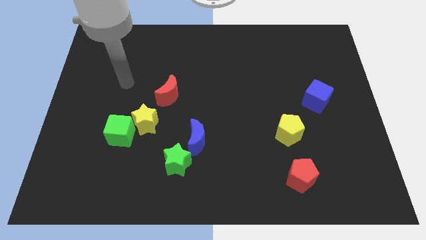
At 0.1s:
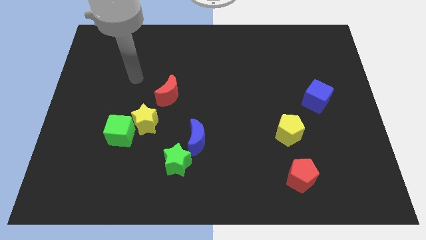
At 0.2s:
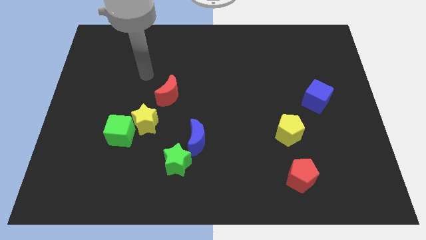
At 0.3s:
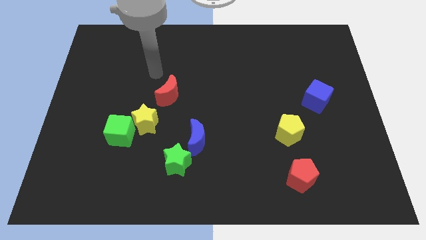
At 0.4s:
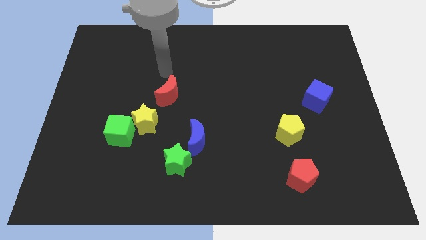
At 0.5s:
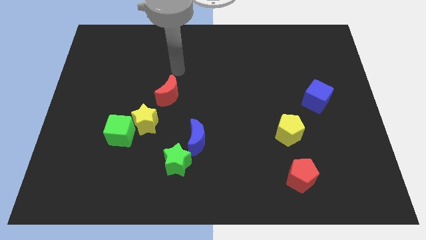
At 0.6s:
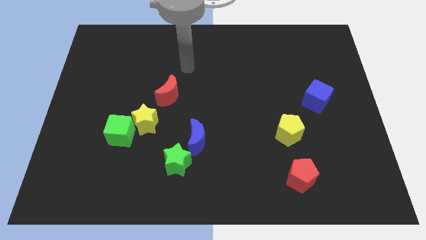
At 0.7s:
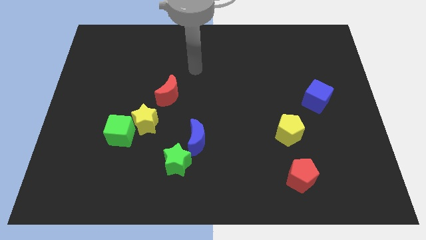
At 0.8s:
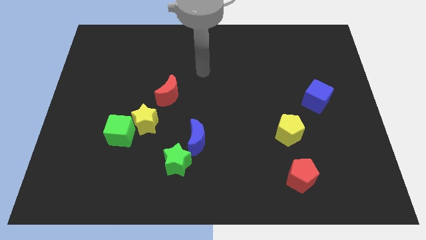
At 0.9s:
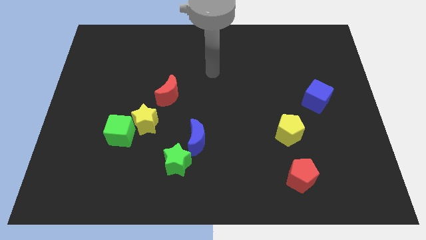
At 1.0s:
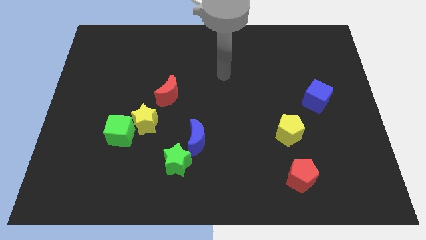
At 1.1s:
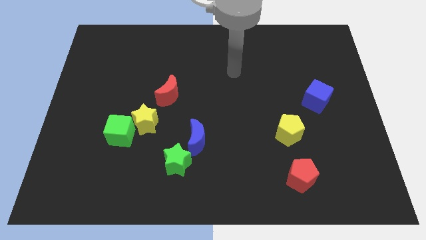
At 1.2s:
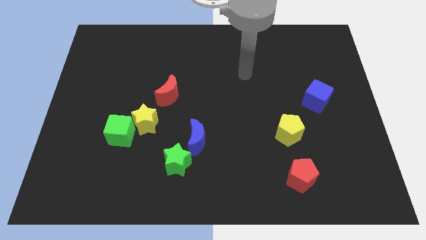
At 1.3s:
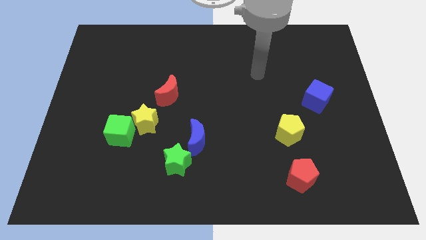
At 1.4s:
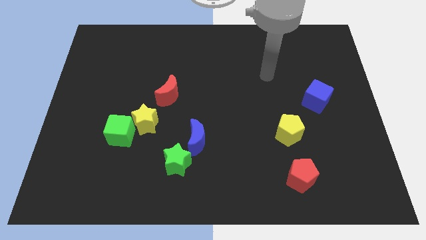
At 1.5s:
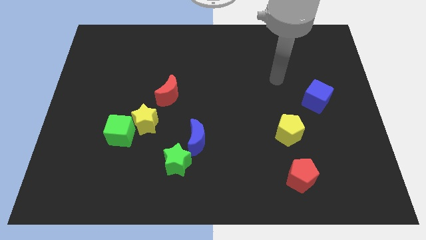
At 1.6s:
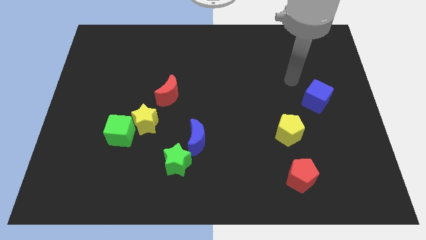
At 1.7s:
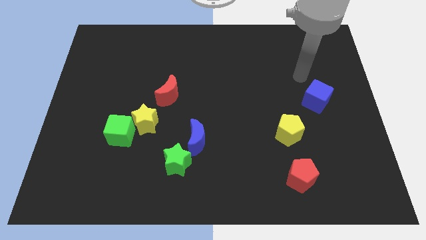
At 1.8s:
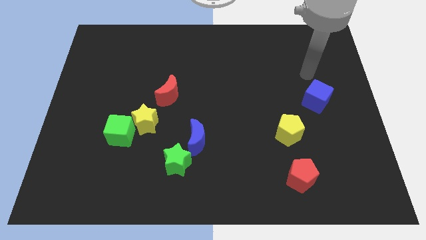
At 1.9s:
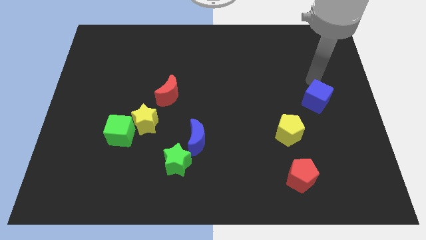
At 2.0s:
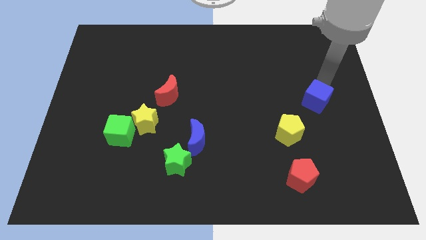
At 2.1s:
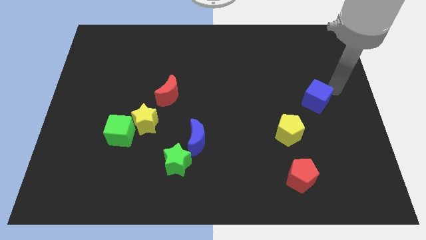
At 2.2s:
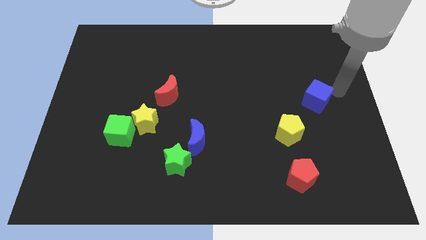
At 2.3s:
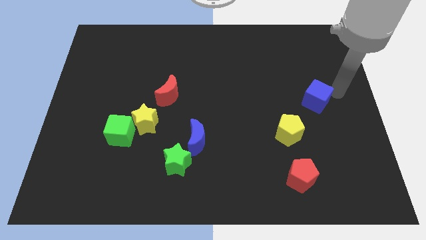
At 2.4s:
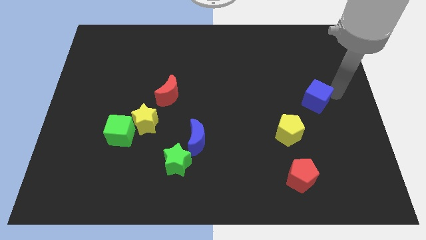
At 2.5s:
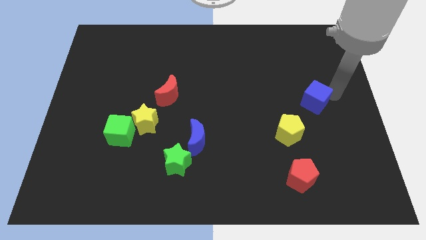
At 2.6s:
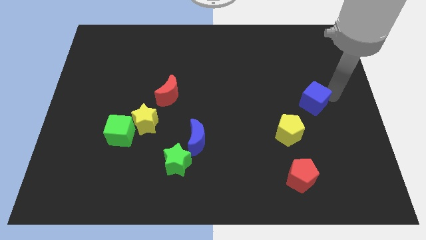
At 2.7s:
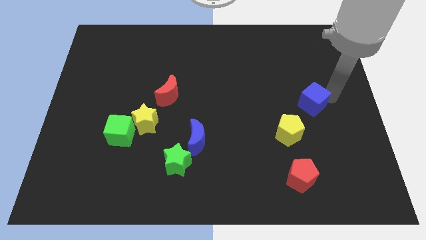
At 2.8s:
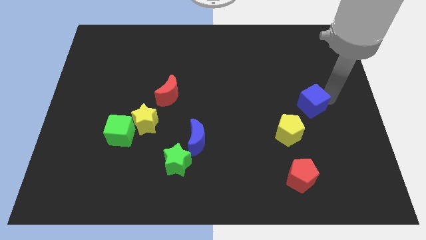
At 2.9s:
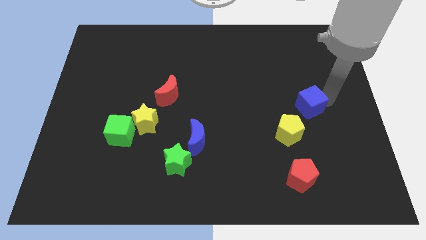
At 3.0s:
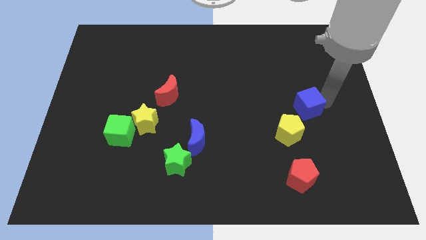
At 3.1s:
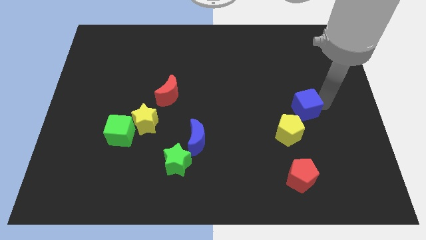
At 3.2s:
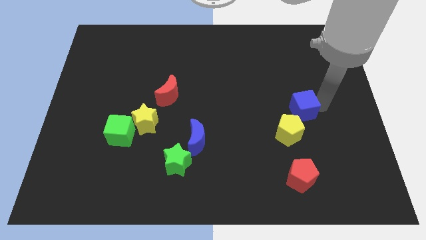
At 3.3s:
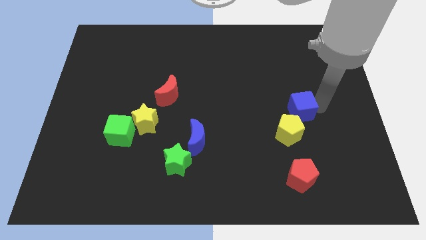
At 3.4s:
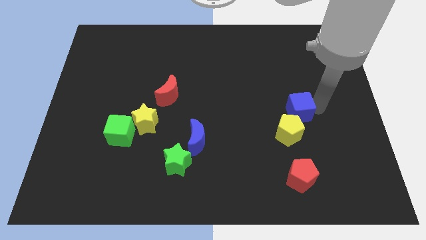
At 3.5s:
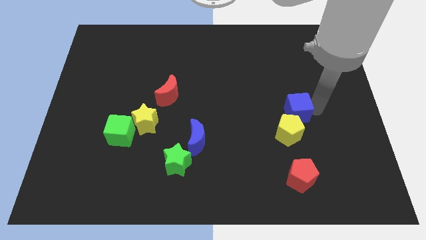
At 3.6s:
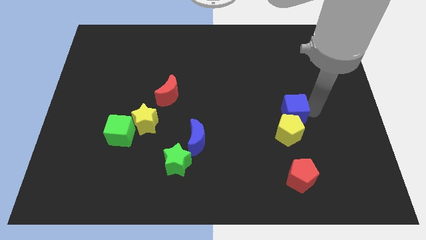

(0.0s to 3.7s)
move the blue cube down and left somewhat

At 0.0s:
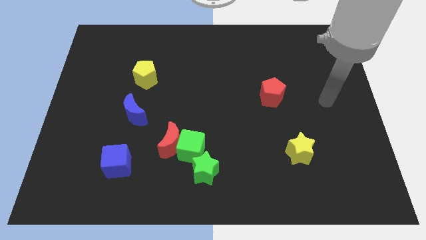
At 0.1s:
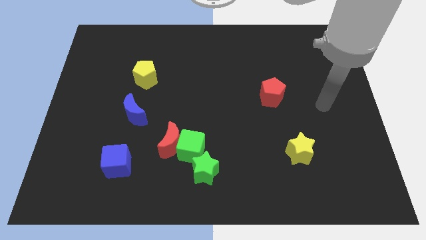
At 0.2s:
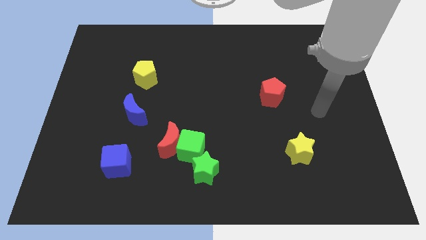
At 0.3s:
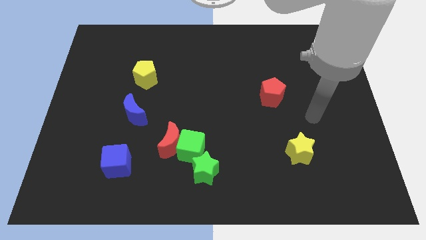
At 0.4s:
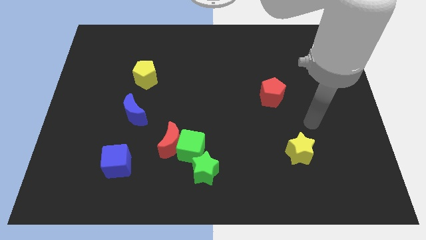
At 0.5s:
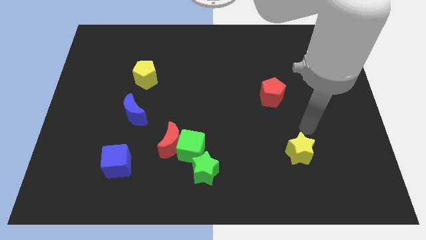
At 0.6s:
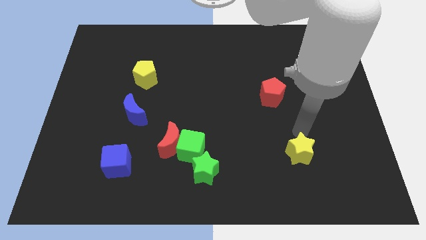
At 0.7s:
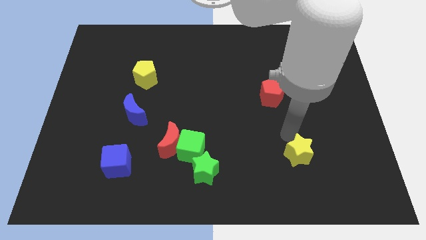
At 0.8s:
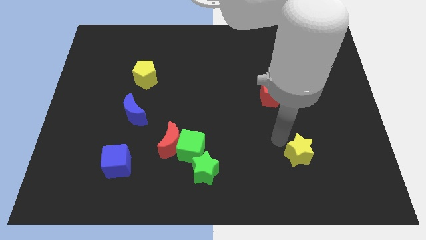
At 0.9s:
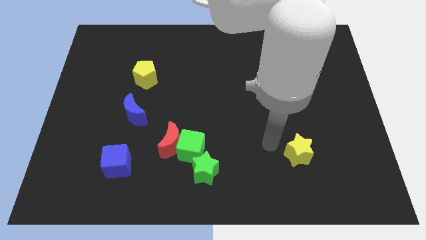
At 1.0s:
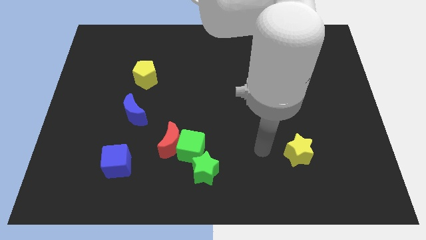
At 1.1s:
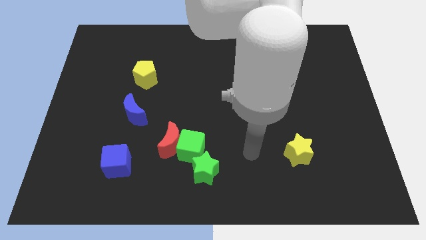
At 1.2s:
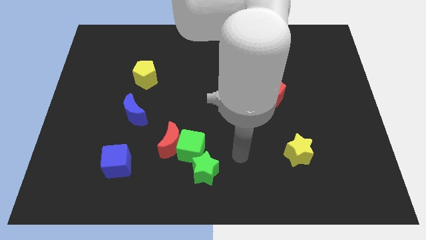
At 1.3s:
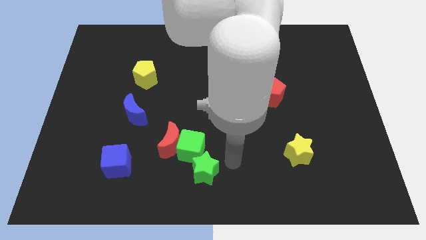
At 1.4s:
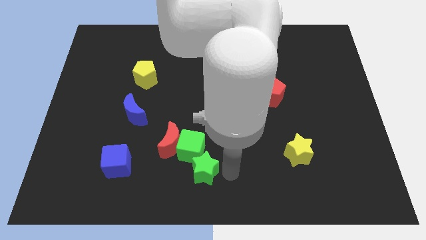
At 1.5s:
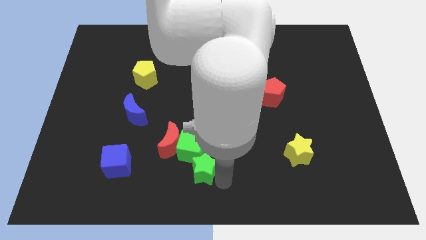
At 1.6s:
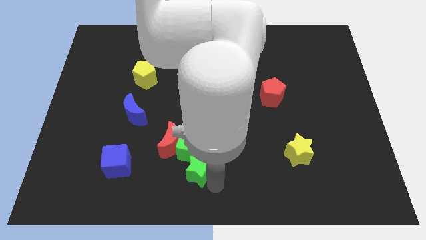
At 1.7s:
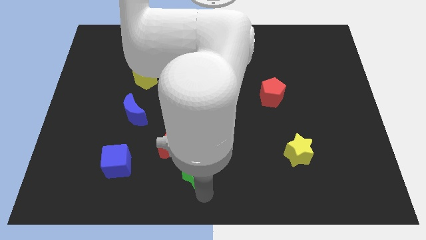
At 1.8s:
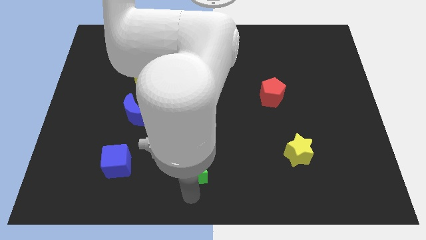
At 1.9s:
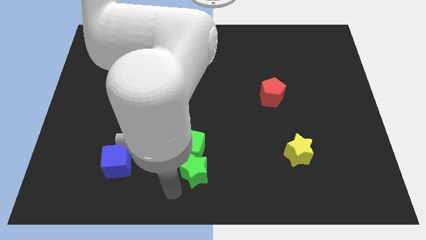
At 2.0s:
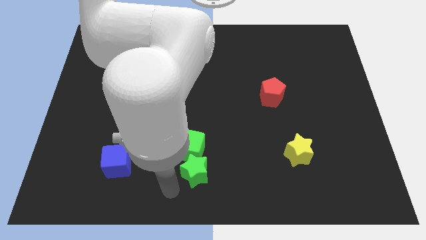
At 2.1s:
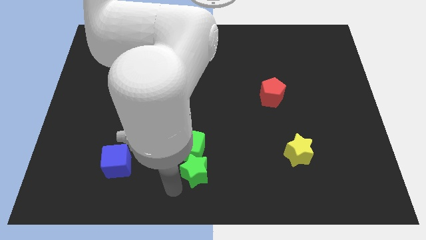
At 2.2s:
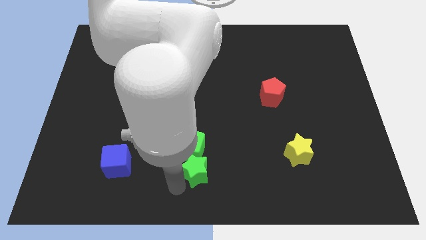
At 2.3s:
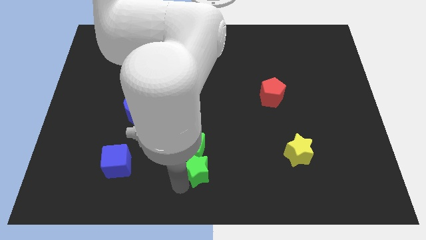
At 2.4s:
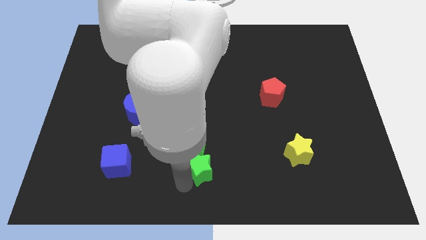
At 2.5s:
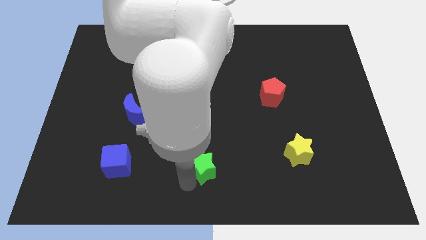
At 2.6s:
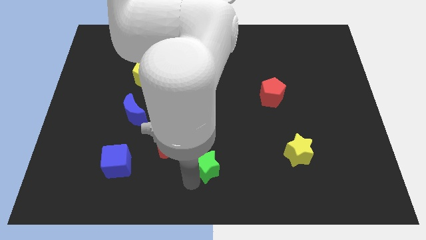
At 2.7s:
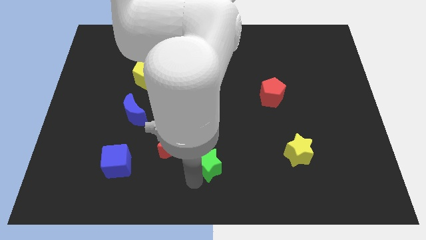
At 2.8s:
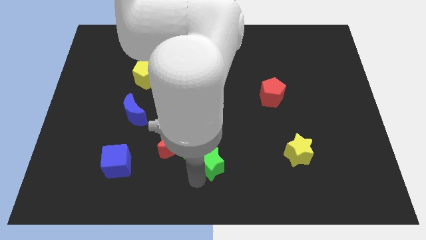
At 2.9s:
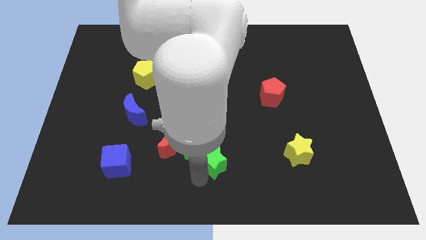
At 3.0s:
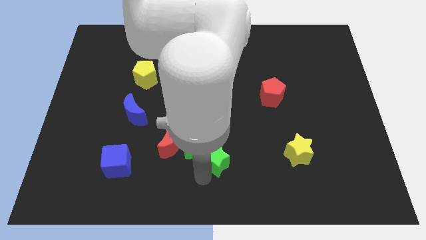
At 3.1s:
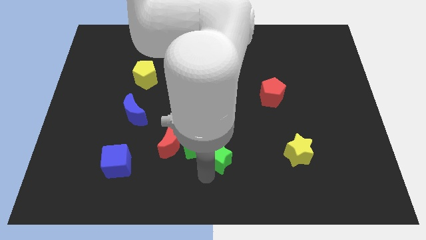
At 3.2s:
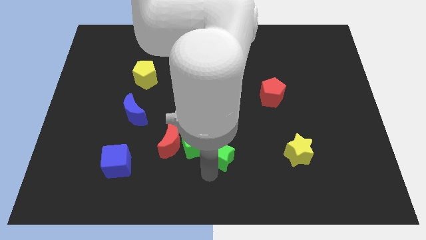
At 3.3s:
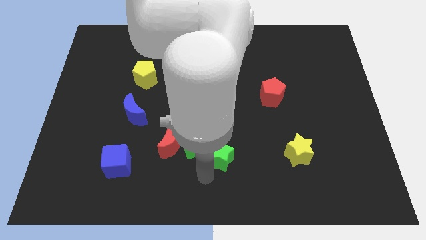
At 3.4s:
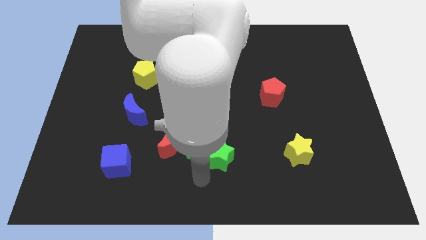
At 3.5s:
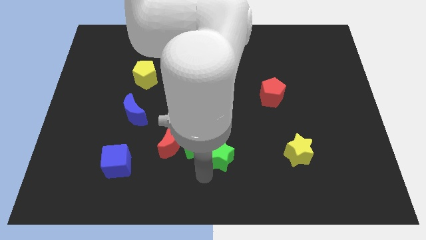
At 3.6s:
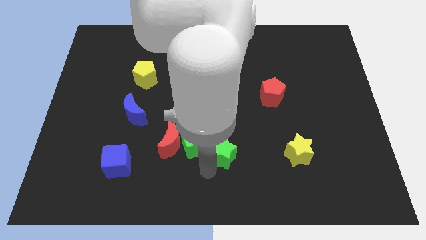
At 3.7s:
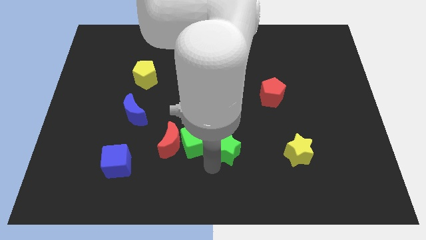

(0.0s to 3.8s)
slide the green star a little bit diagonally upwards and to the right

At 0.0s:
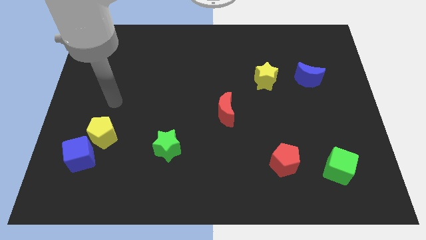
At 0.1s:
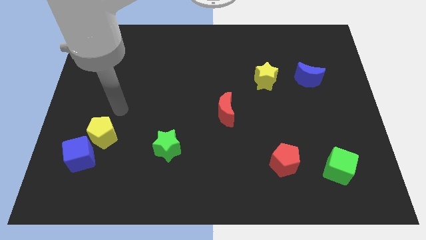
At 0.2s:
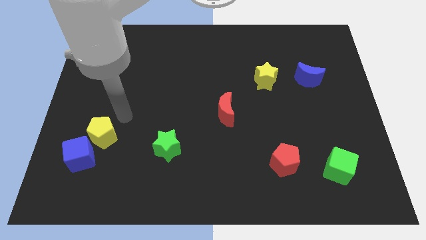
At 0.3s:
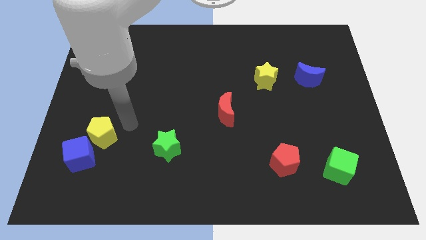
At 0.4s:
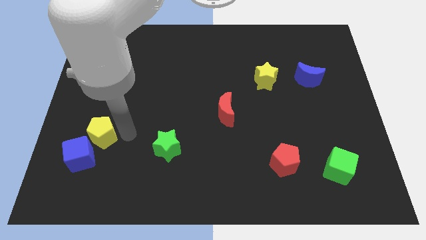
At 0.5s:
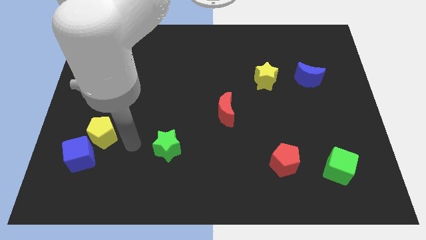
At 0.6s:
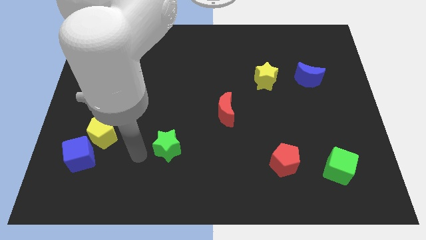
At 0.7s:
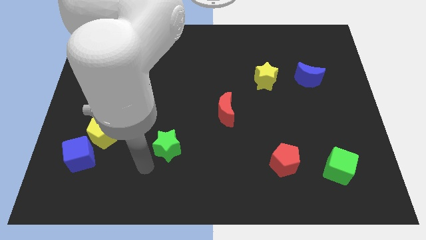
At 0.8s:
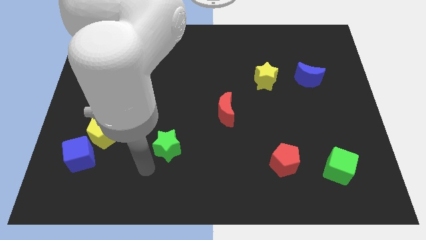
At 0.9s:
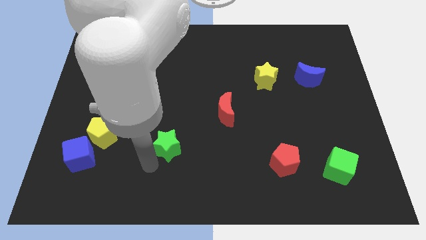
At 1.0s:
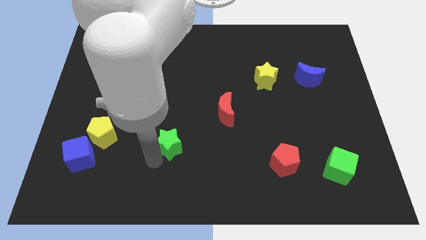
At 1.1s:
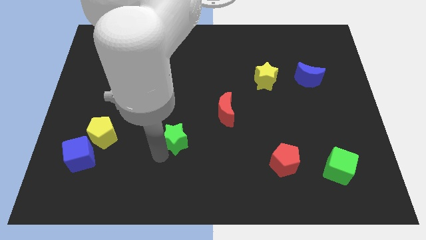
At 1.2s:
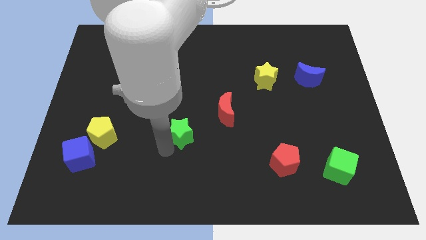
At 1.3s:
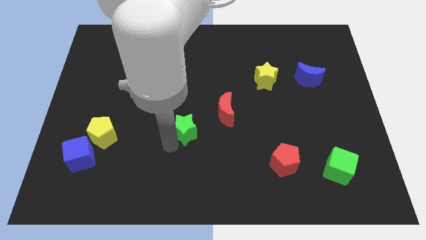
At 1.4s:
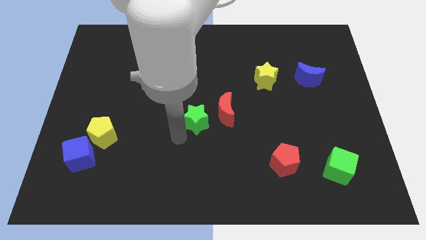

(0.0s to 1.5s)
push the green star upwards and right somewhat
